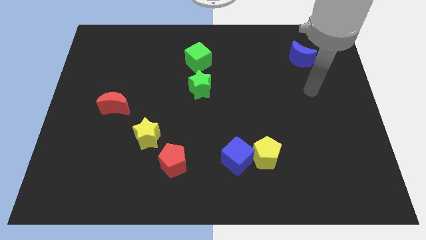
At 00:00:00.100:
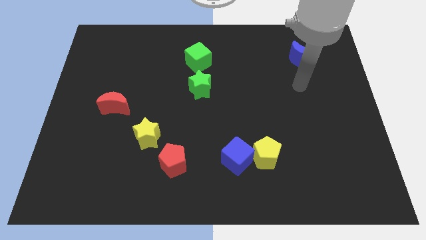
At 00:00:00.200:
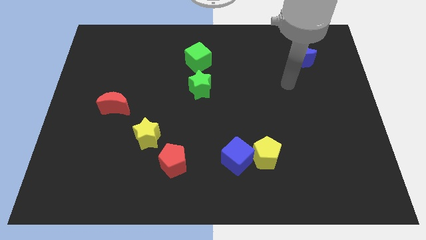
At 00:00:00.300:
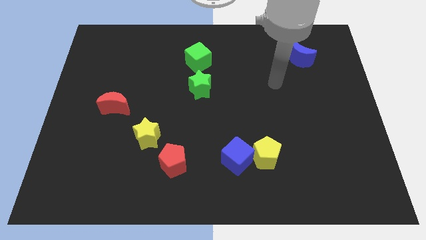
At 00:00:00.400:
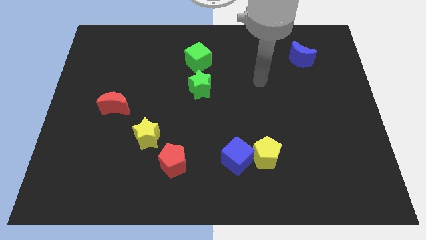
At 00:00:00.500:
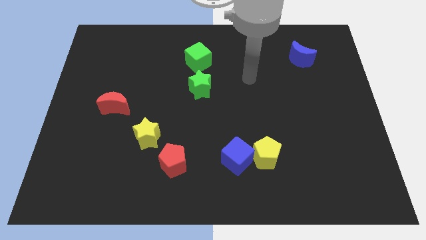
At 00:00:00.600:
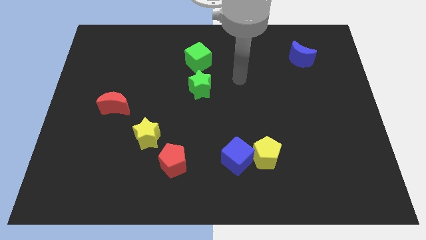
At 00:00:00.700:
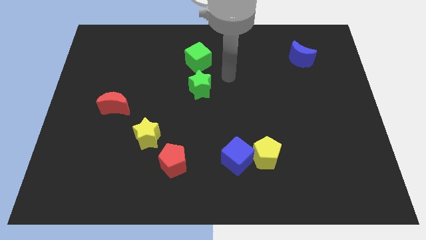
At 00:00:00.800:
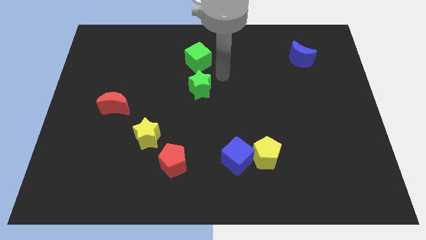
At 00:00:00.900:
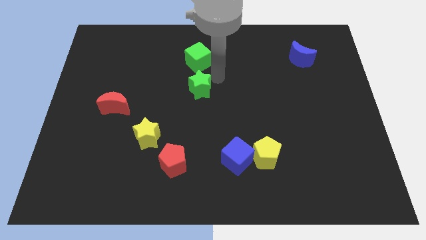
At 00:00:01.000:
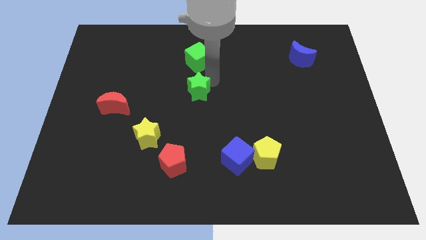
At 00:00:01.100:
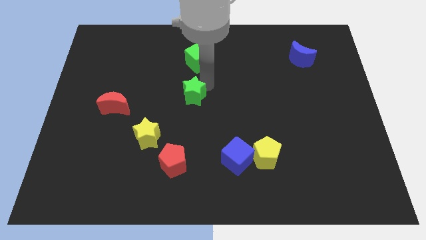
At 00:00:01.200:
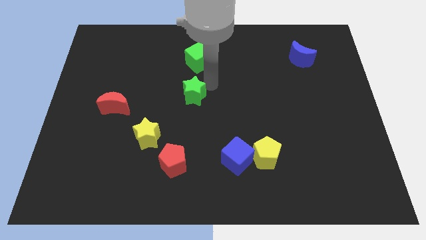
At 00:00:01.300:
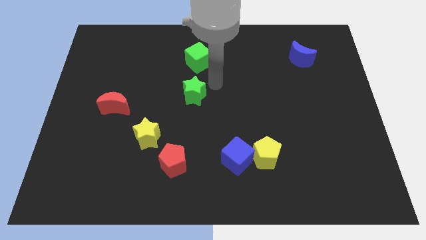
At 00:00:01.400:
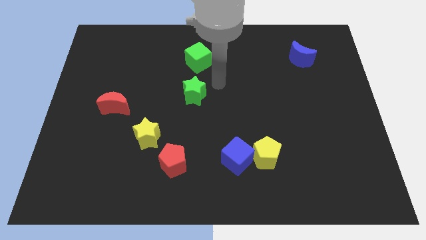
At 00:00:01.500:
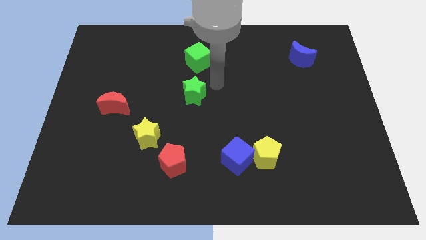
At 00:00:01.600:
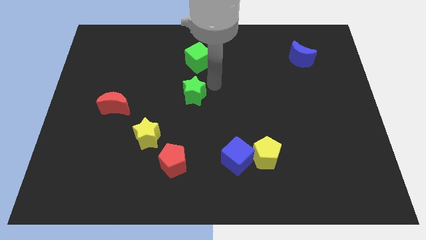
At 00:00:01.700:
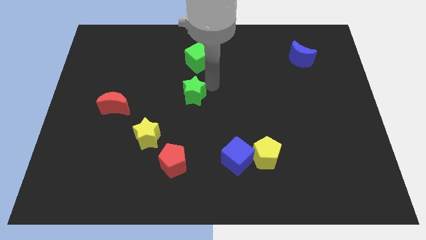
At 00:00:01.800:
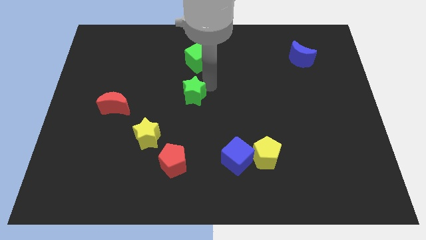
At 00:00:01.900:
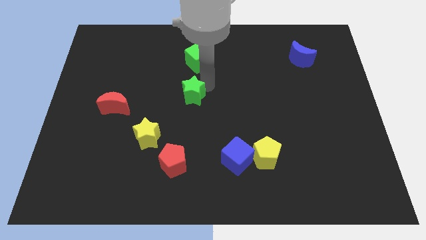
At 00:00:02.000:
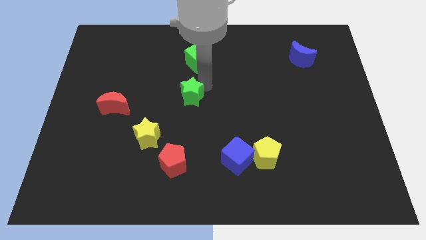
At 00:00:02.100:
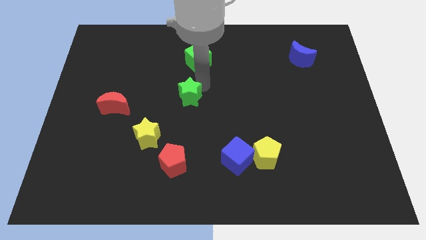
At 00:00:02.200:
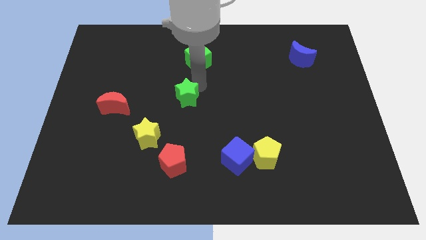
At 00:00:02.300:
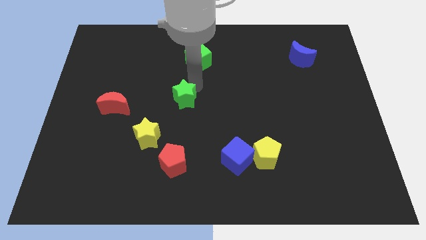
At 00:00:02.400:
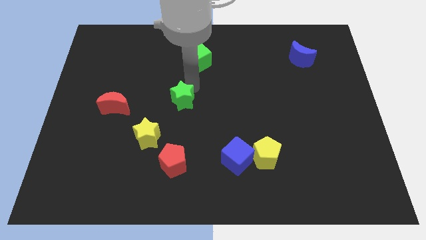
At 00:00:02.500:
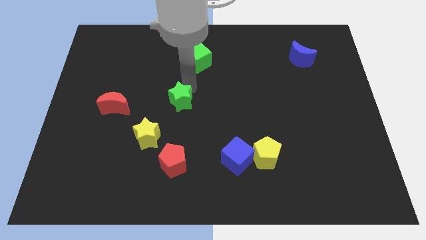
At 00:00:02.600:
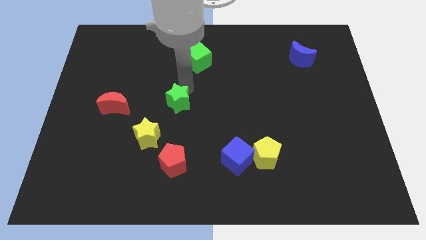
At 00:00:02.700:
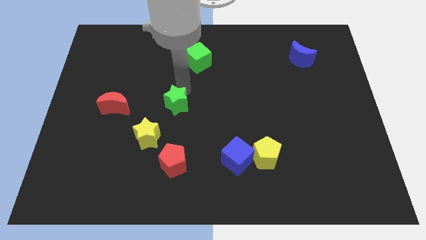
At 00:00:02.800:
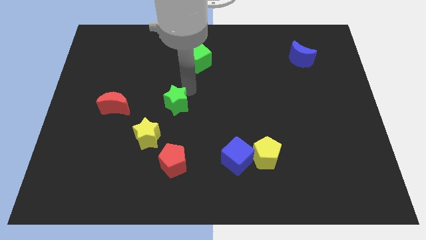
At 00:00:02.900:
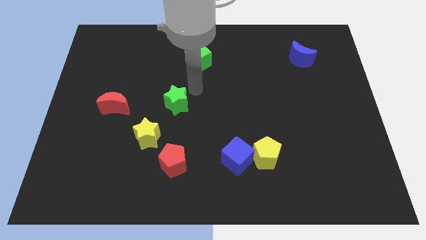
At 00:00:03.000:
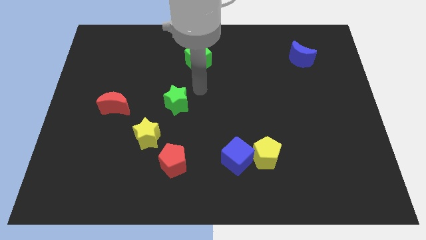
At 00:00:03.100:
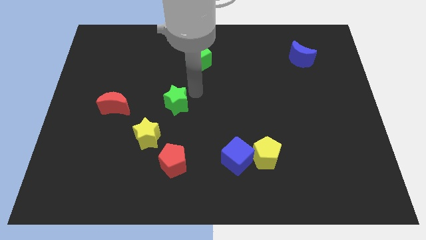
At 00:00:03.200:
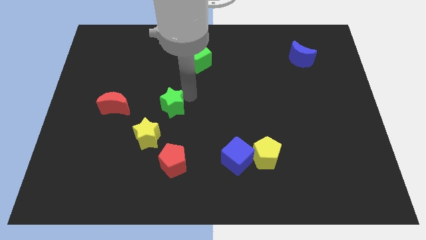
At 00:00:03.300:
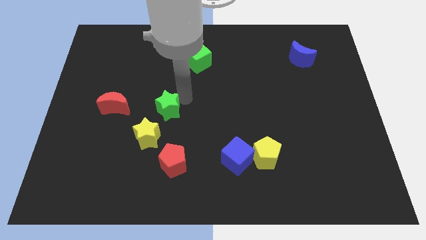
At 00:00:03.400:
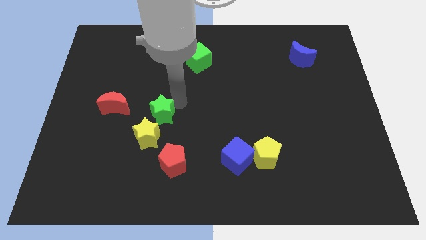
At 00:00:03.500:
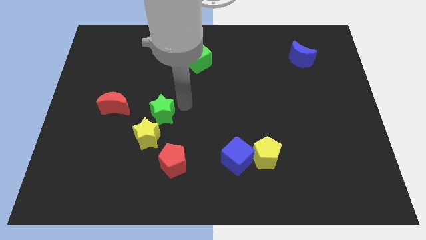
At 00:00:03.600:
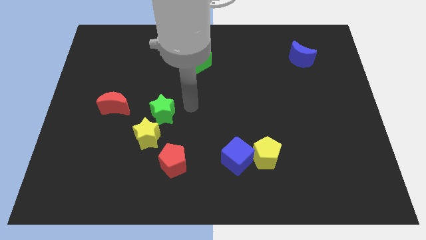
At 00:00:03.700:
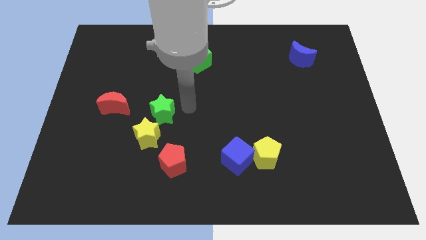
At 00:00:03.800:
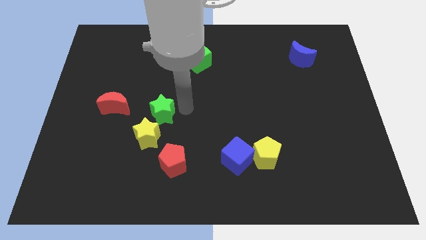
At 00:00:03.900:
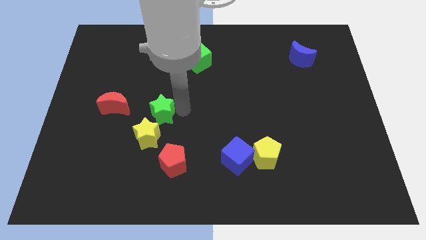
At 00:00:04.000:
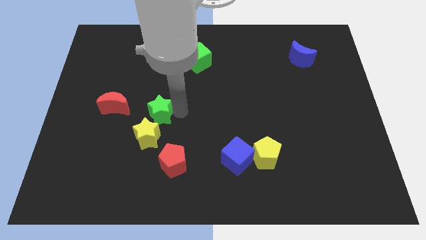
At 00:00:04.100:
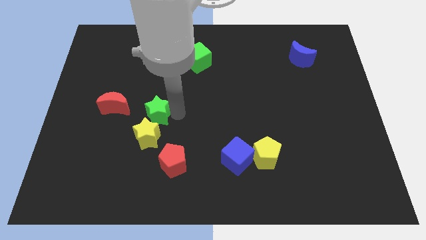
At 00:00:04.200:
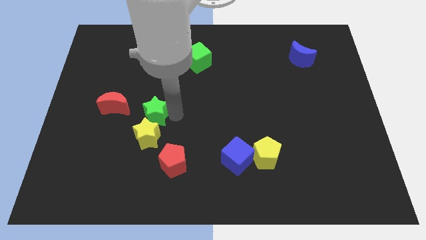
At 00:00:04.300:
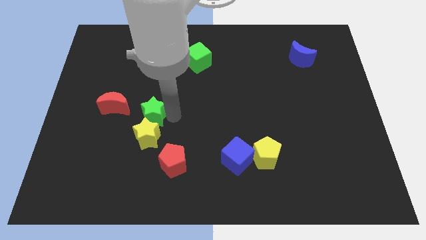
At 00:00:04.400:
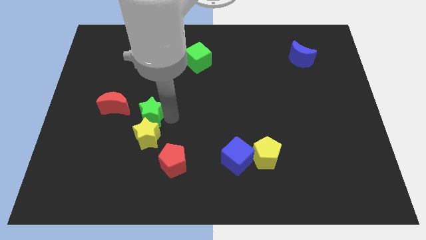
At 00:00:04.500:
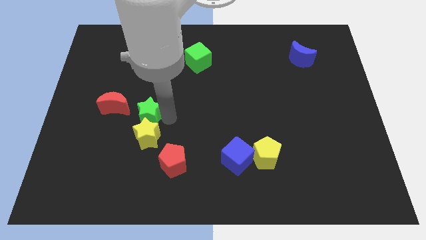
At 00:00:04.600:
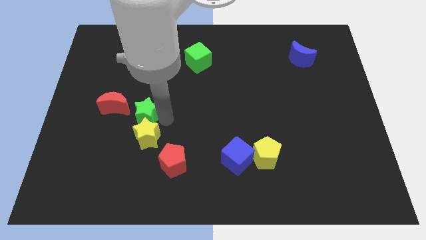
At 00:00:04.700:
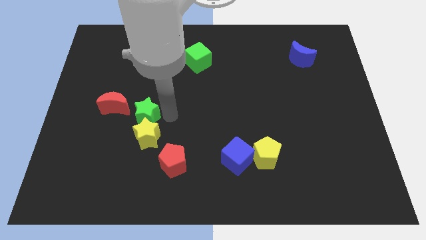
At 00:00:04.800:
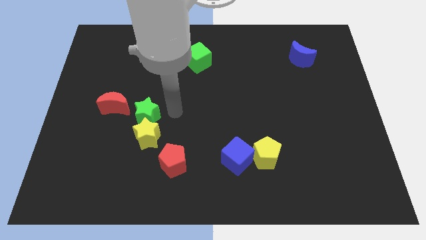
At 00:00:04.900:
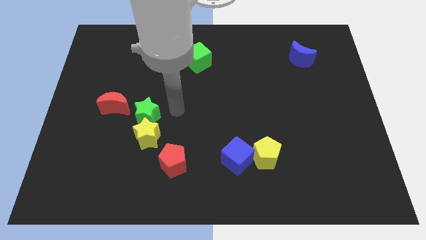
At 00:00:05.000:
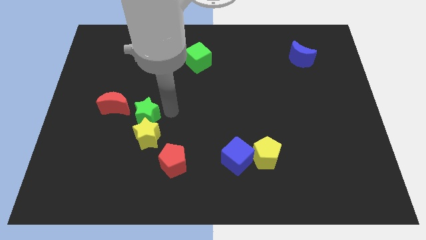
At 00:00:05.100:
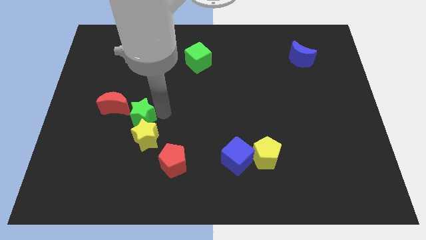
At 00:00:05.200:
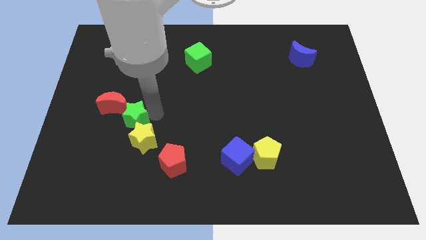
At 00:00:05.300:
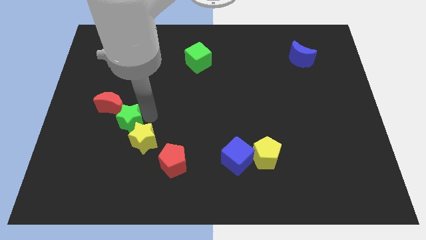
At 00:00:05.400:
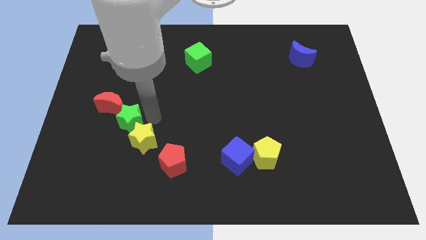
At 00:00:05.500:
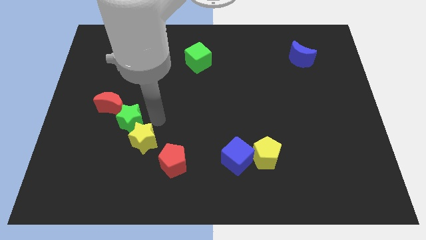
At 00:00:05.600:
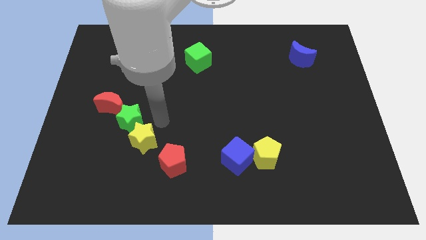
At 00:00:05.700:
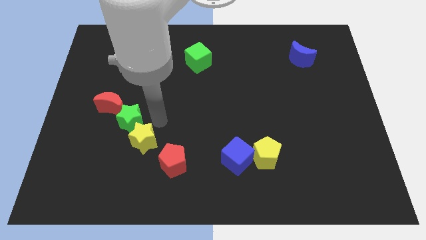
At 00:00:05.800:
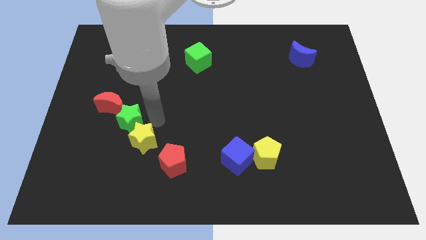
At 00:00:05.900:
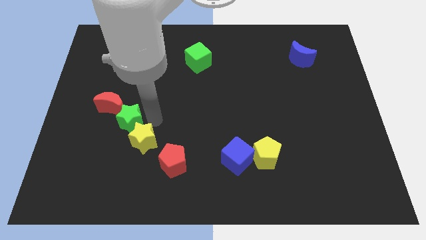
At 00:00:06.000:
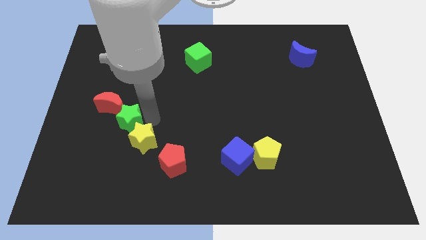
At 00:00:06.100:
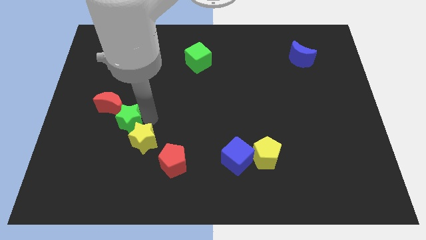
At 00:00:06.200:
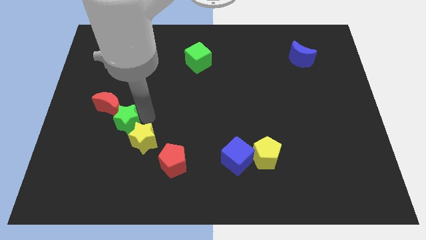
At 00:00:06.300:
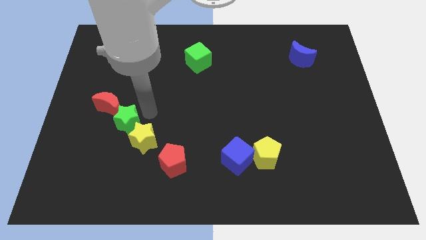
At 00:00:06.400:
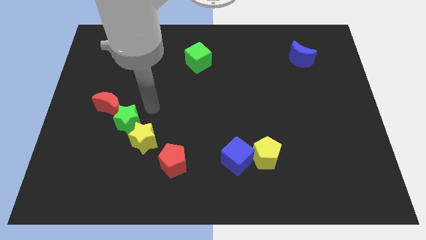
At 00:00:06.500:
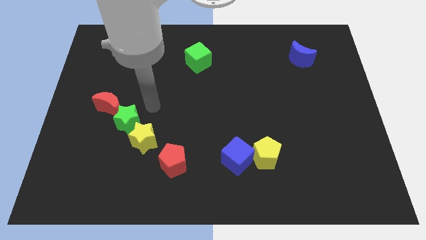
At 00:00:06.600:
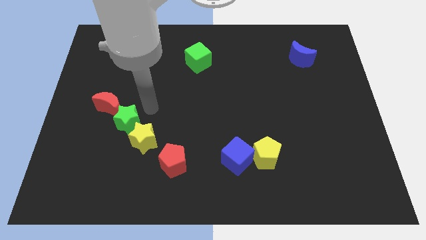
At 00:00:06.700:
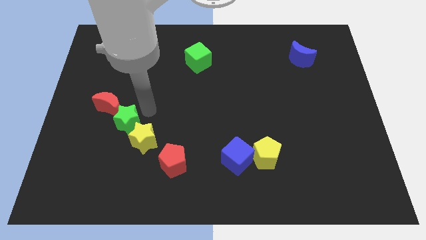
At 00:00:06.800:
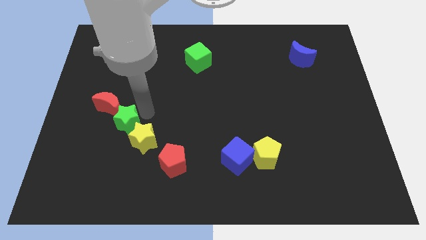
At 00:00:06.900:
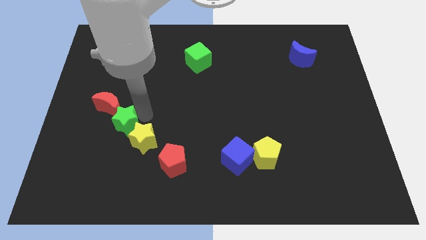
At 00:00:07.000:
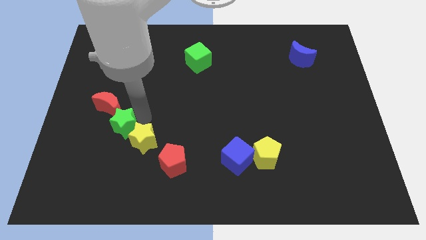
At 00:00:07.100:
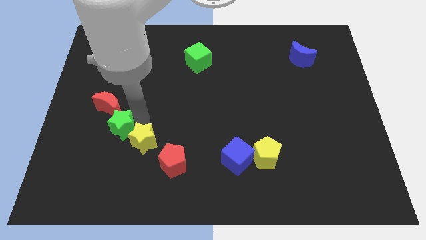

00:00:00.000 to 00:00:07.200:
move the green star diagonally downwards and left

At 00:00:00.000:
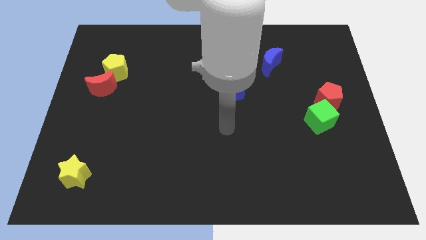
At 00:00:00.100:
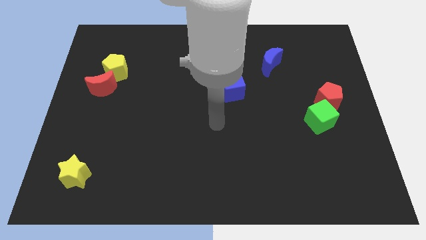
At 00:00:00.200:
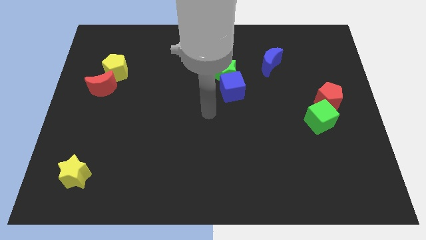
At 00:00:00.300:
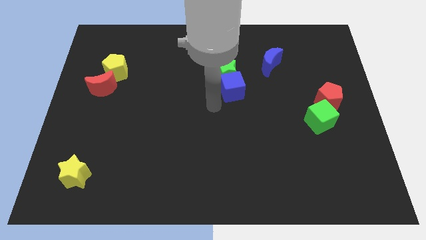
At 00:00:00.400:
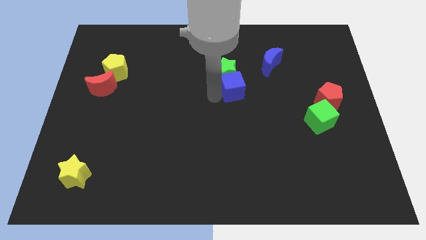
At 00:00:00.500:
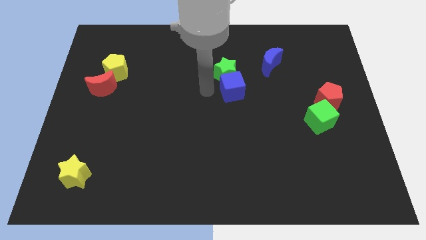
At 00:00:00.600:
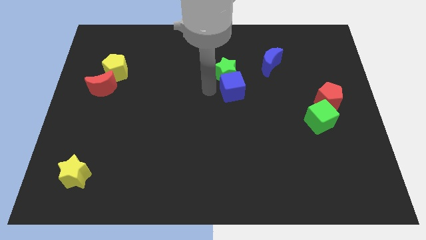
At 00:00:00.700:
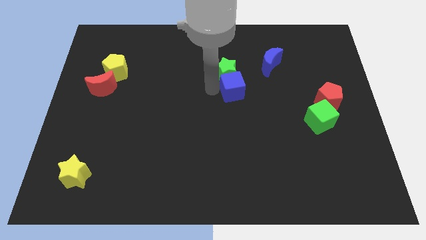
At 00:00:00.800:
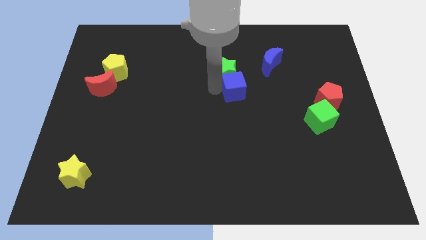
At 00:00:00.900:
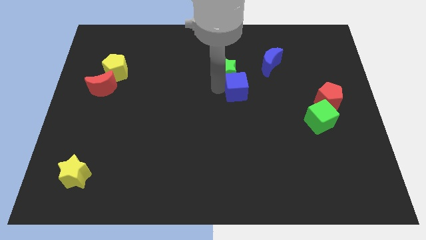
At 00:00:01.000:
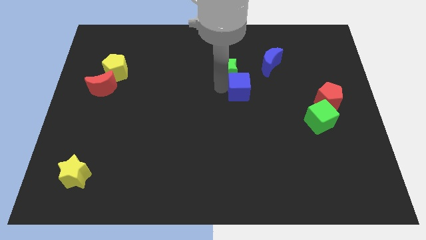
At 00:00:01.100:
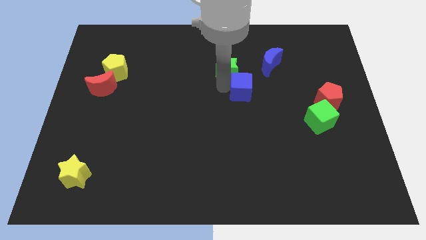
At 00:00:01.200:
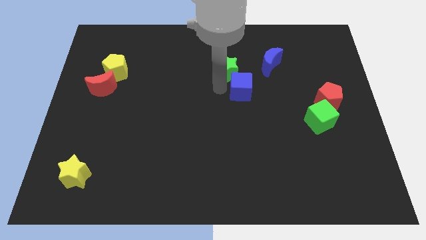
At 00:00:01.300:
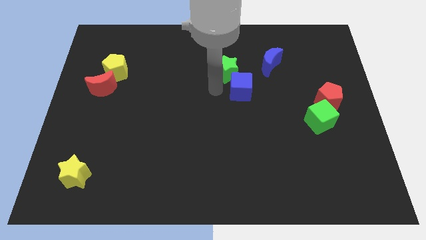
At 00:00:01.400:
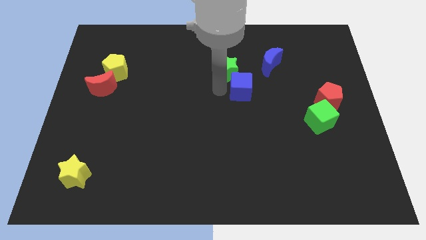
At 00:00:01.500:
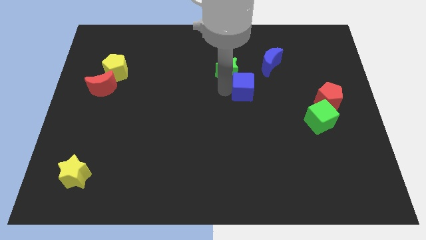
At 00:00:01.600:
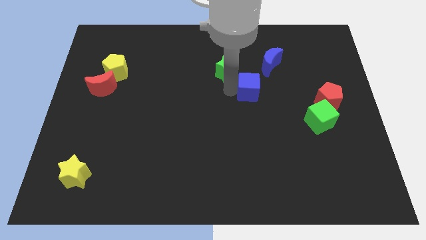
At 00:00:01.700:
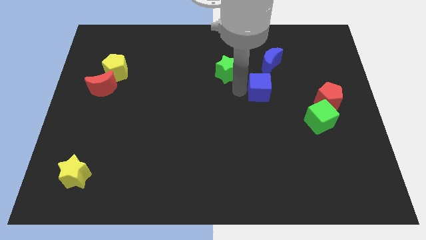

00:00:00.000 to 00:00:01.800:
slide the blue cube right somewhat
